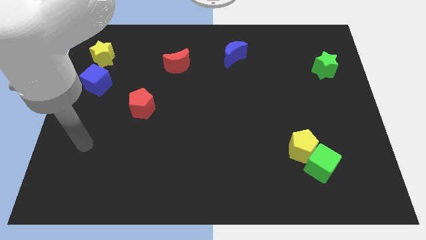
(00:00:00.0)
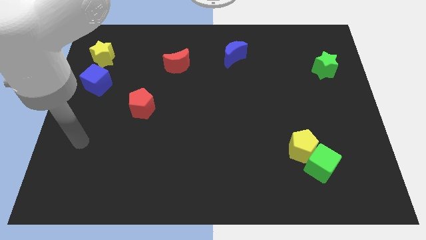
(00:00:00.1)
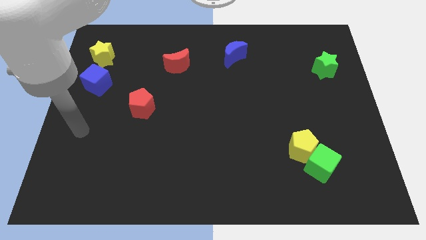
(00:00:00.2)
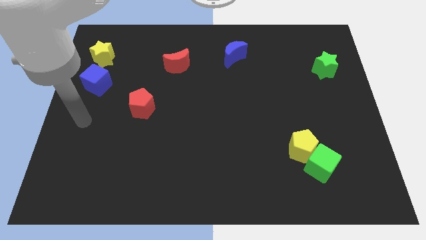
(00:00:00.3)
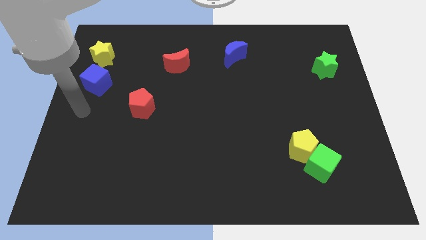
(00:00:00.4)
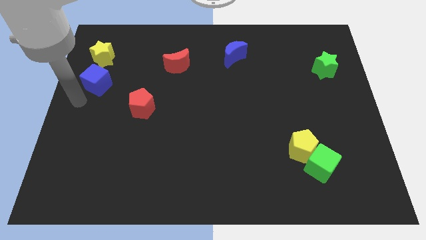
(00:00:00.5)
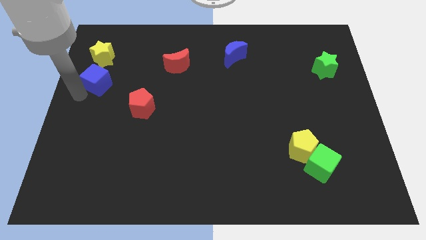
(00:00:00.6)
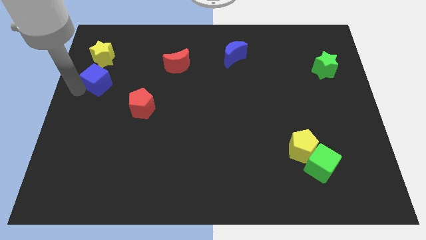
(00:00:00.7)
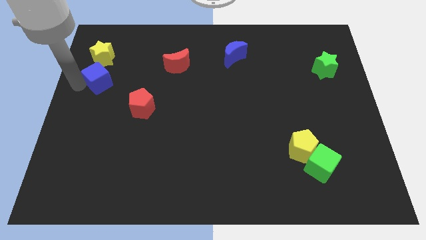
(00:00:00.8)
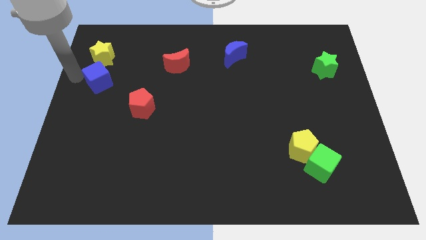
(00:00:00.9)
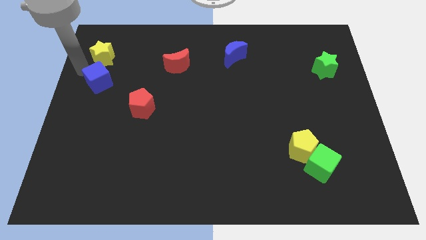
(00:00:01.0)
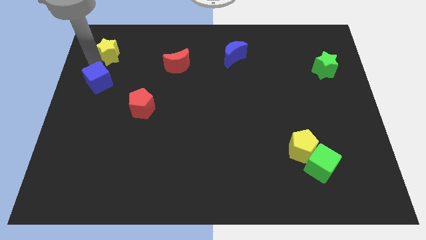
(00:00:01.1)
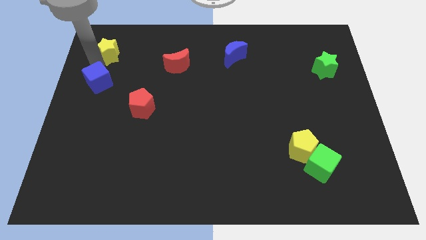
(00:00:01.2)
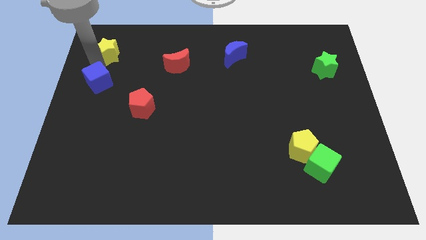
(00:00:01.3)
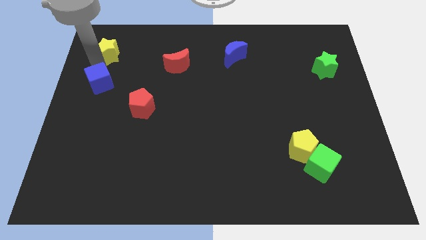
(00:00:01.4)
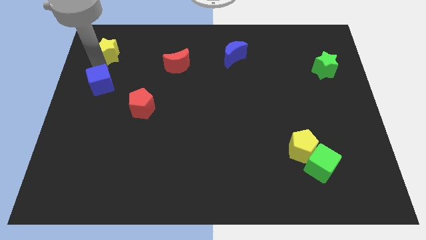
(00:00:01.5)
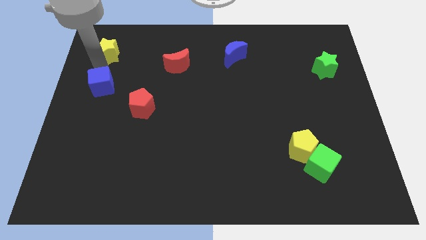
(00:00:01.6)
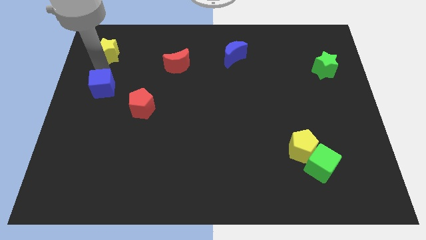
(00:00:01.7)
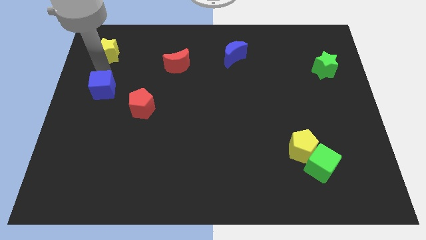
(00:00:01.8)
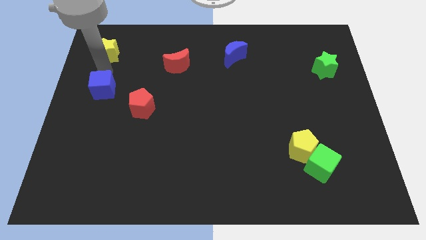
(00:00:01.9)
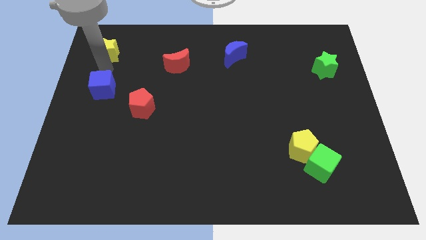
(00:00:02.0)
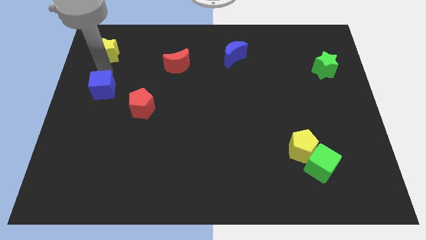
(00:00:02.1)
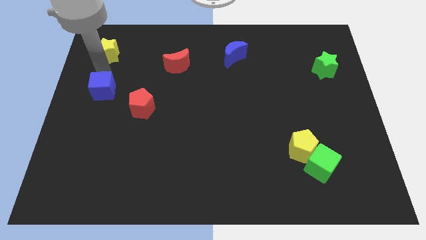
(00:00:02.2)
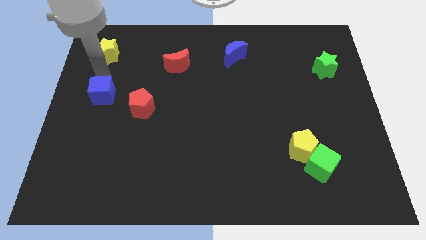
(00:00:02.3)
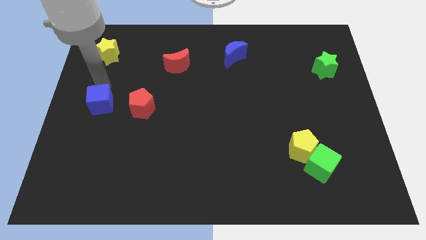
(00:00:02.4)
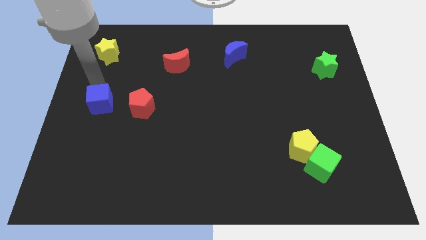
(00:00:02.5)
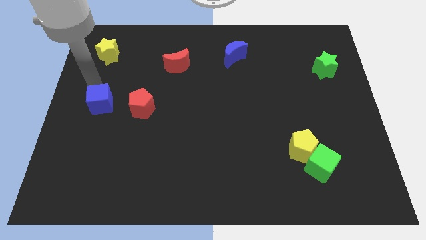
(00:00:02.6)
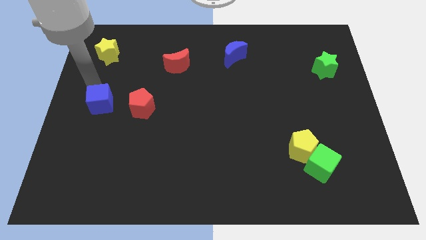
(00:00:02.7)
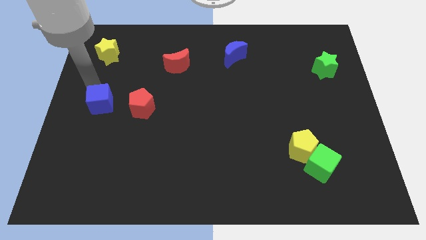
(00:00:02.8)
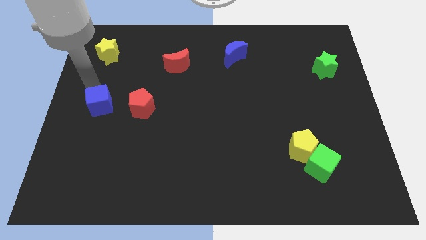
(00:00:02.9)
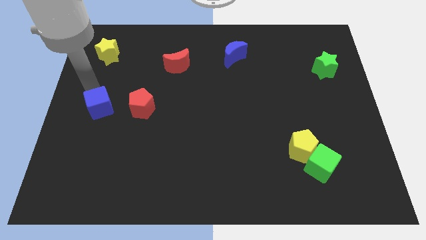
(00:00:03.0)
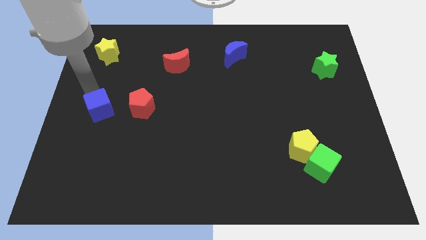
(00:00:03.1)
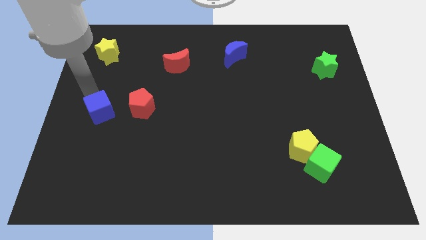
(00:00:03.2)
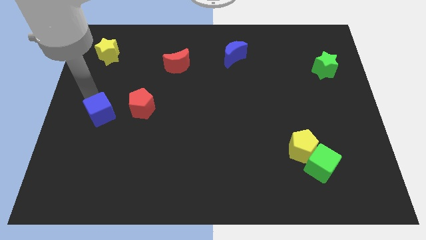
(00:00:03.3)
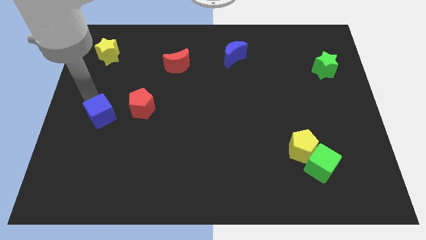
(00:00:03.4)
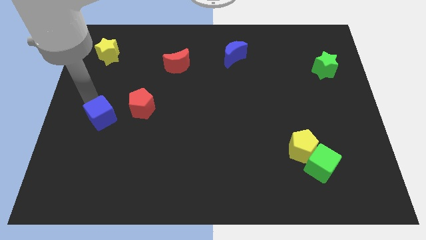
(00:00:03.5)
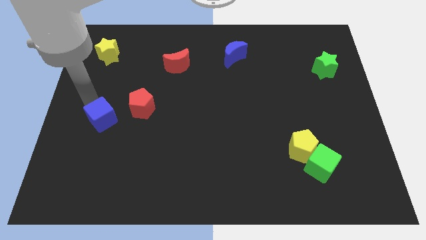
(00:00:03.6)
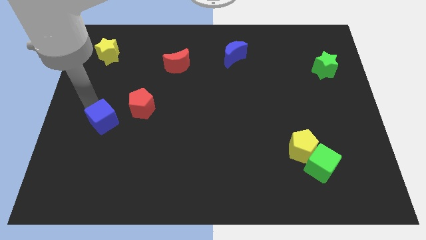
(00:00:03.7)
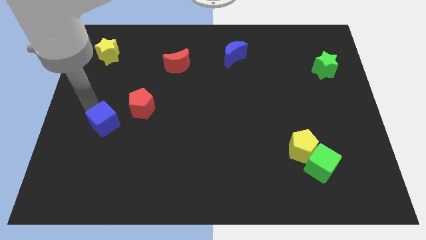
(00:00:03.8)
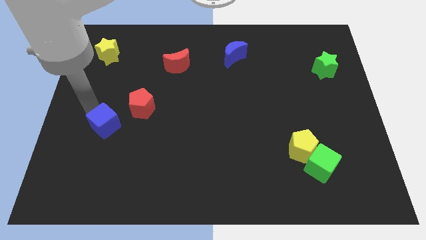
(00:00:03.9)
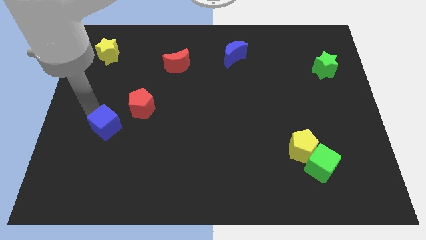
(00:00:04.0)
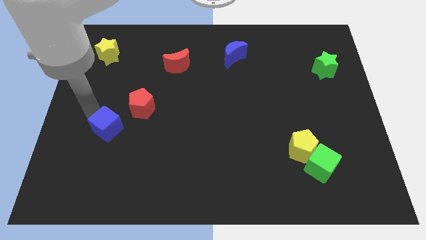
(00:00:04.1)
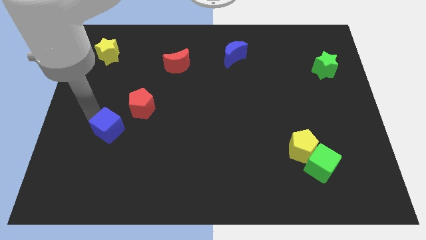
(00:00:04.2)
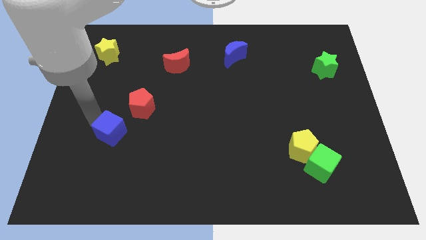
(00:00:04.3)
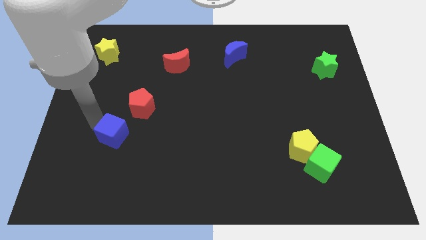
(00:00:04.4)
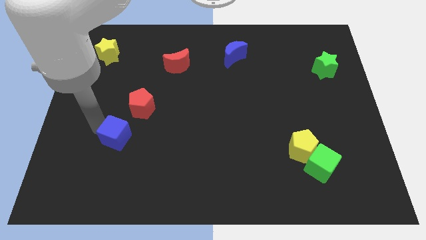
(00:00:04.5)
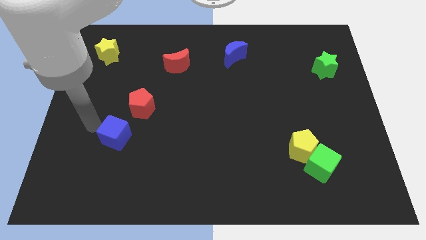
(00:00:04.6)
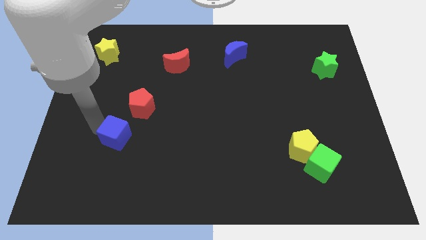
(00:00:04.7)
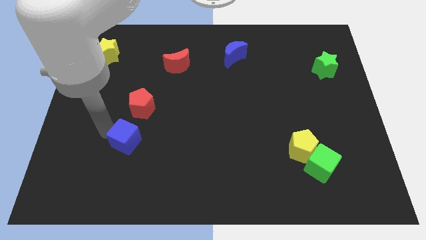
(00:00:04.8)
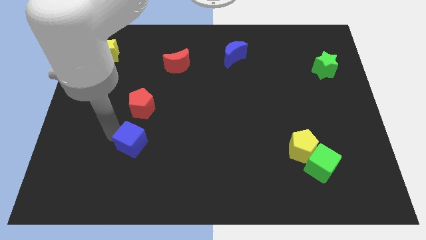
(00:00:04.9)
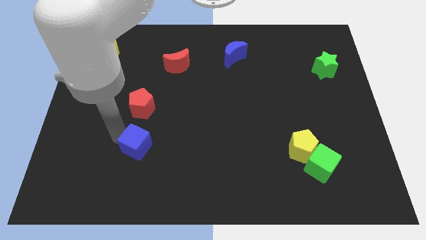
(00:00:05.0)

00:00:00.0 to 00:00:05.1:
slide the blue cube down and right diagonally

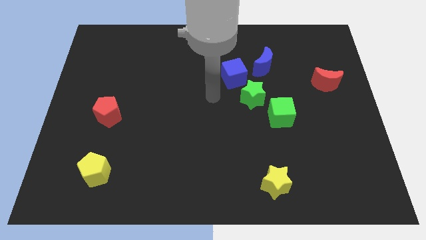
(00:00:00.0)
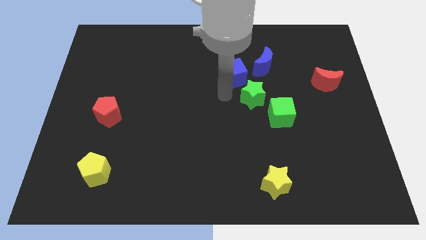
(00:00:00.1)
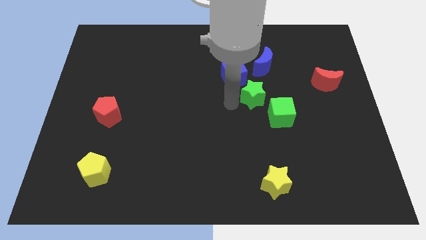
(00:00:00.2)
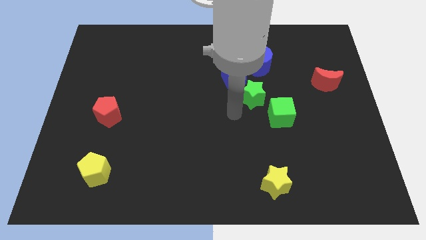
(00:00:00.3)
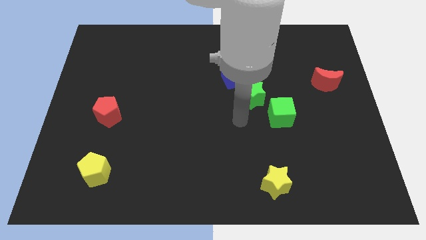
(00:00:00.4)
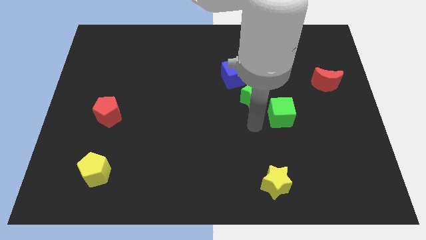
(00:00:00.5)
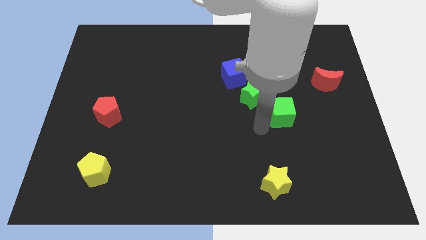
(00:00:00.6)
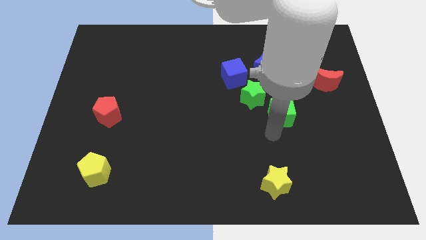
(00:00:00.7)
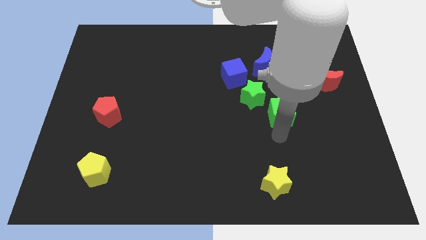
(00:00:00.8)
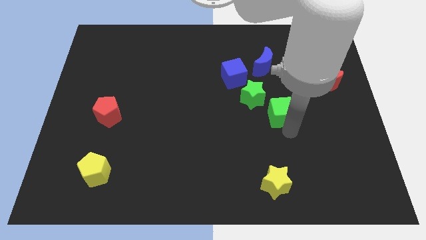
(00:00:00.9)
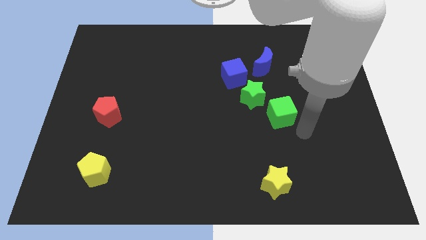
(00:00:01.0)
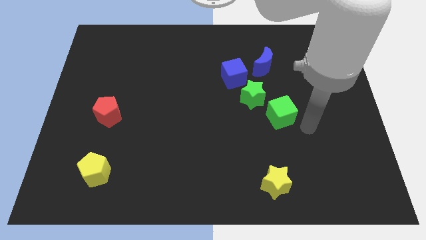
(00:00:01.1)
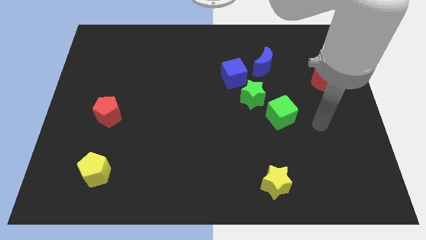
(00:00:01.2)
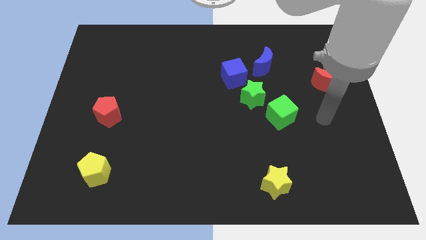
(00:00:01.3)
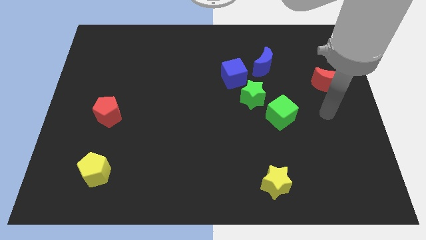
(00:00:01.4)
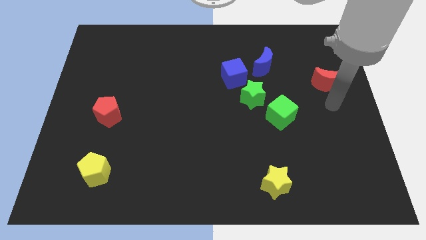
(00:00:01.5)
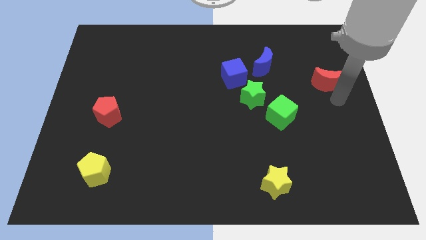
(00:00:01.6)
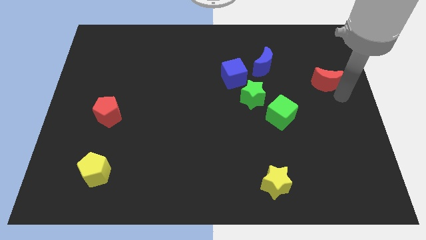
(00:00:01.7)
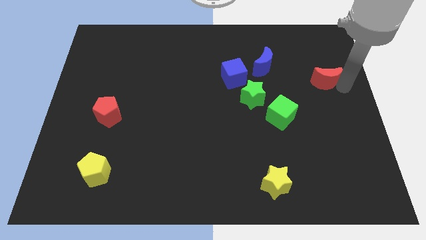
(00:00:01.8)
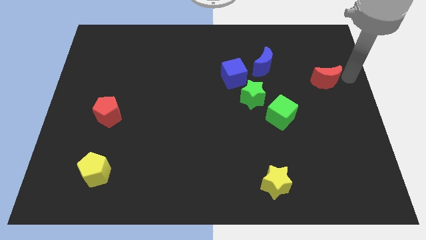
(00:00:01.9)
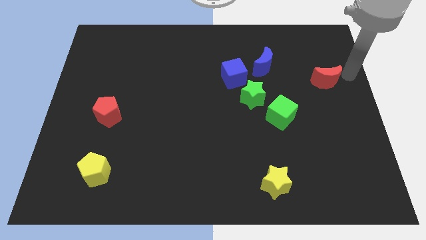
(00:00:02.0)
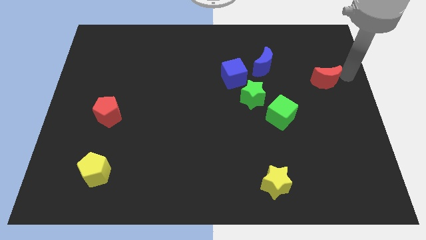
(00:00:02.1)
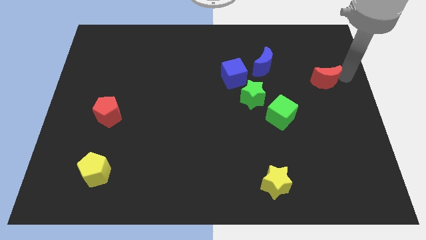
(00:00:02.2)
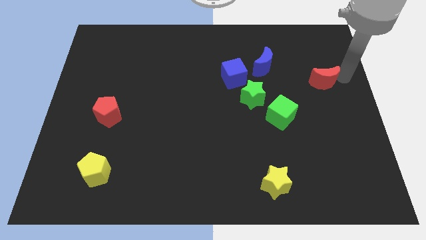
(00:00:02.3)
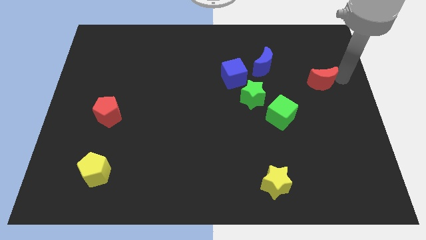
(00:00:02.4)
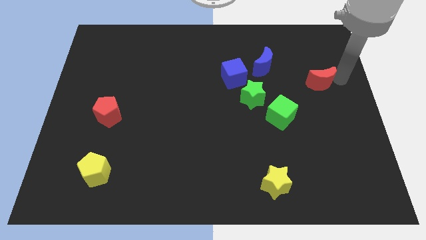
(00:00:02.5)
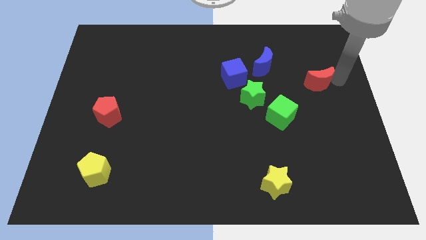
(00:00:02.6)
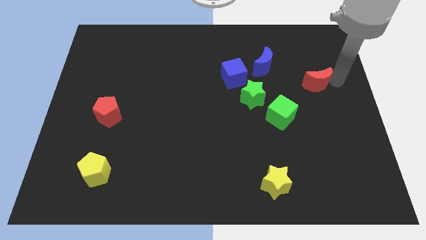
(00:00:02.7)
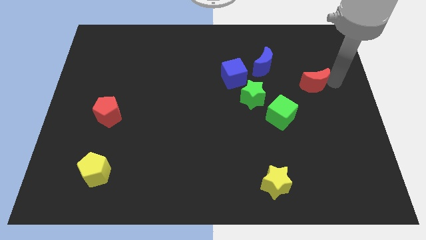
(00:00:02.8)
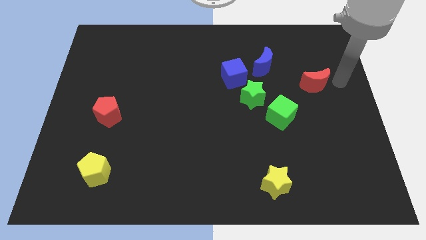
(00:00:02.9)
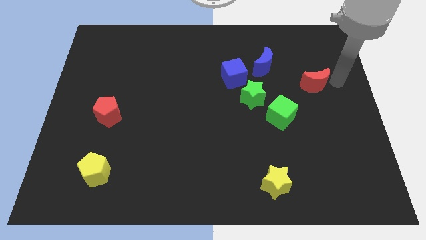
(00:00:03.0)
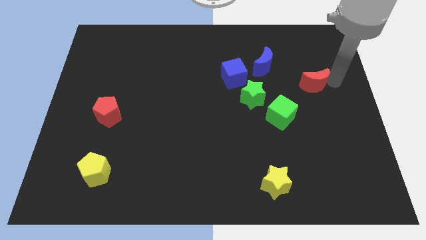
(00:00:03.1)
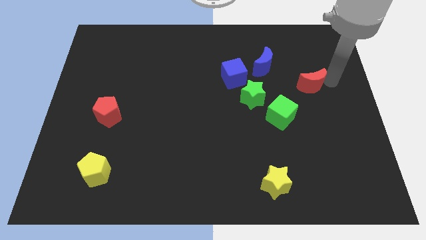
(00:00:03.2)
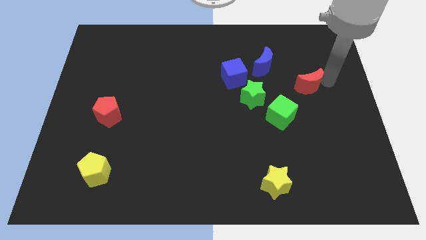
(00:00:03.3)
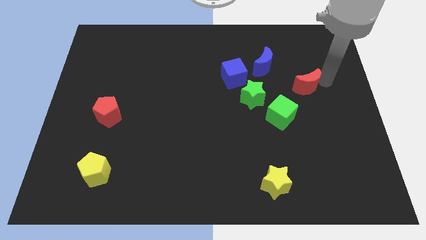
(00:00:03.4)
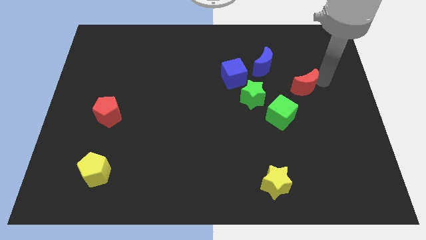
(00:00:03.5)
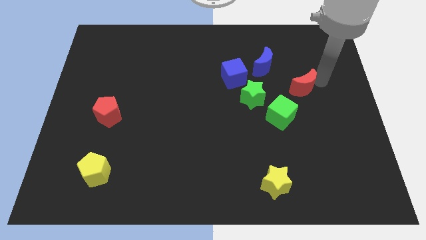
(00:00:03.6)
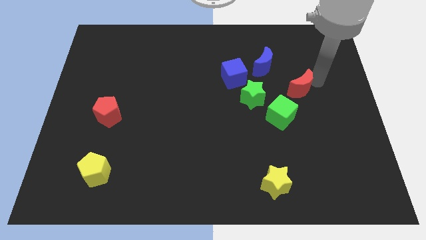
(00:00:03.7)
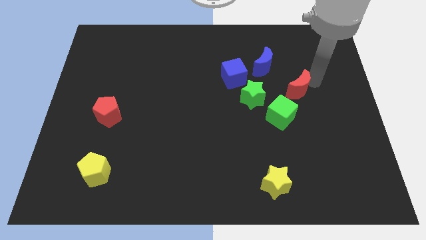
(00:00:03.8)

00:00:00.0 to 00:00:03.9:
slightly move the red moon to the left
